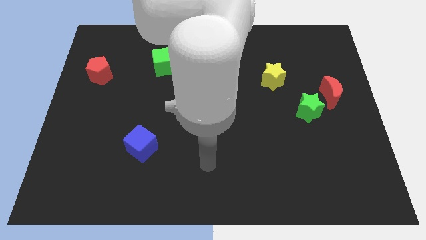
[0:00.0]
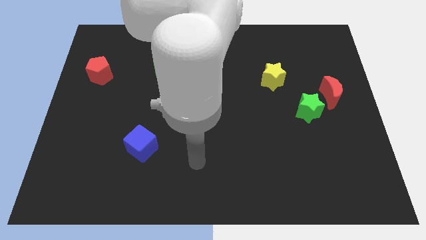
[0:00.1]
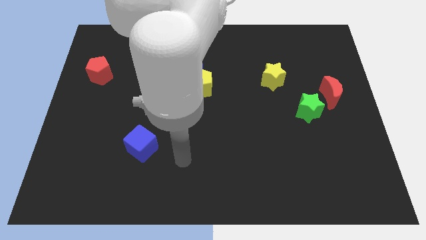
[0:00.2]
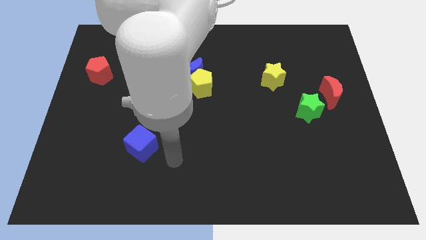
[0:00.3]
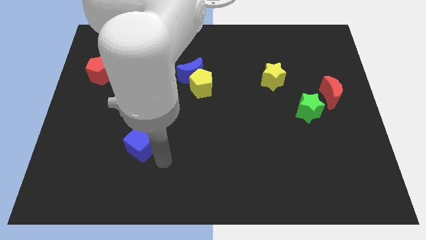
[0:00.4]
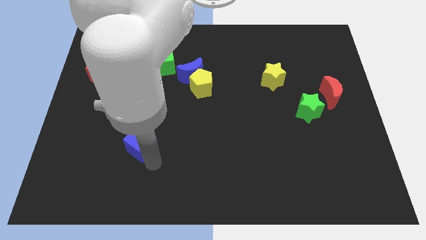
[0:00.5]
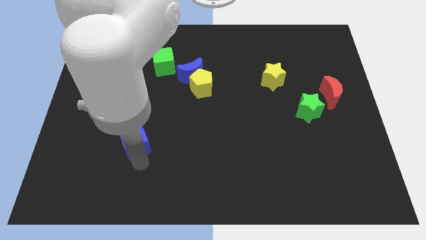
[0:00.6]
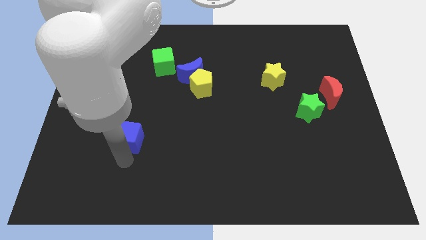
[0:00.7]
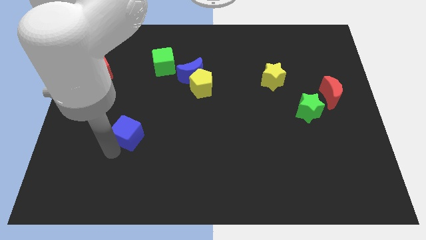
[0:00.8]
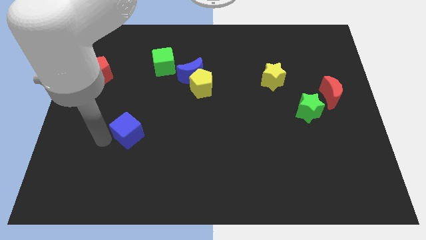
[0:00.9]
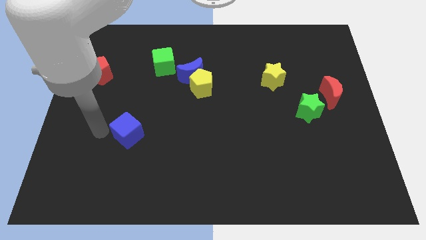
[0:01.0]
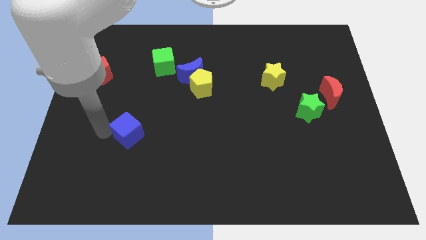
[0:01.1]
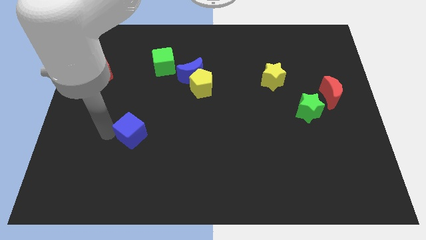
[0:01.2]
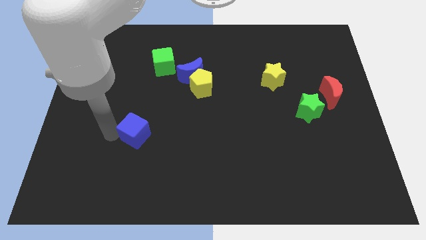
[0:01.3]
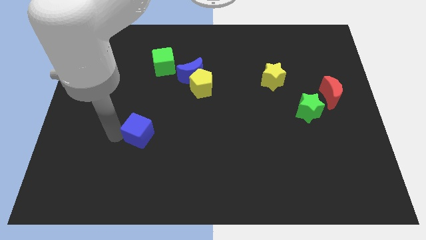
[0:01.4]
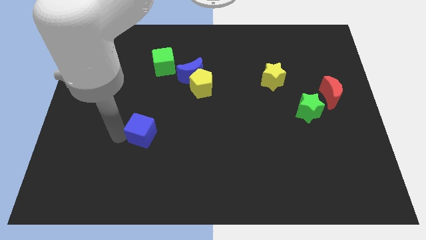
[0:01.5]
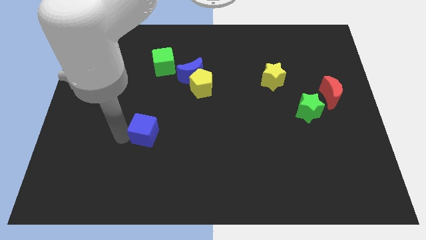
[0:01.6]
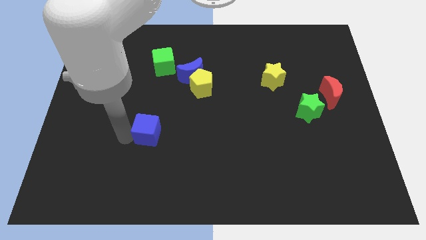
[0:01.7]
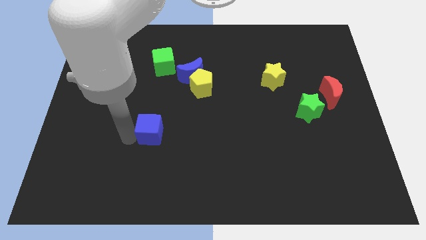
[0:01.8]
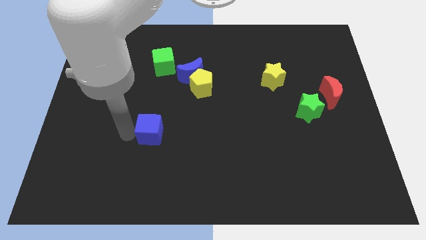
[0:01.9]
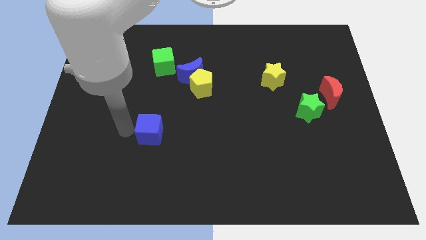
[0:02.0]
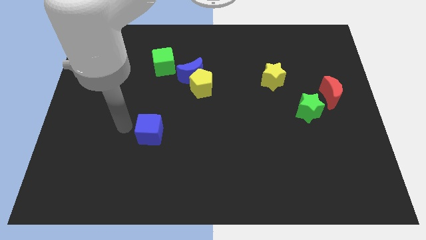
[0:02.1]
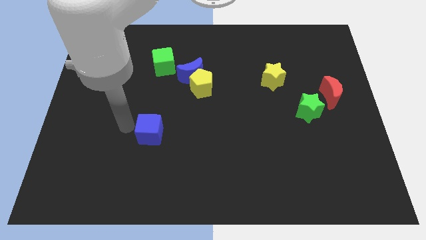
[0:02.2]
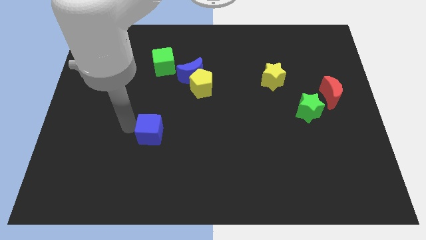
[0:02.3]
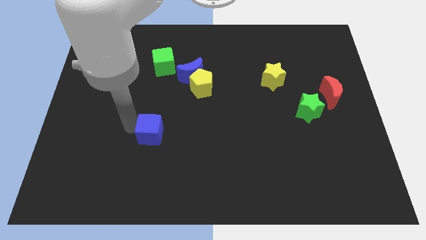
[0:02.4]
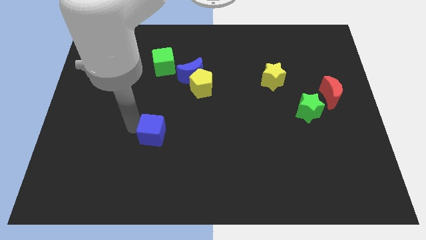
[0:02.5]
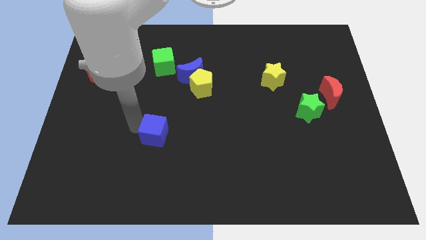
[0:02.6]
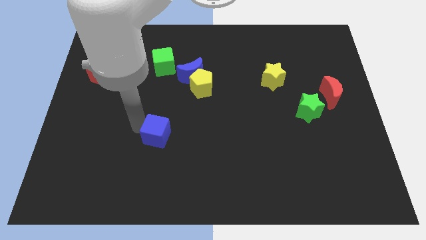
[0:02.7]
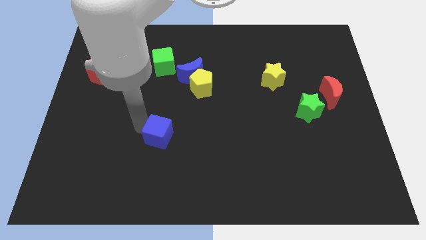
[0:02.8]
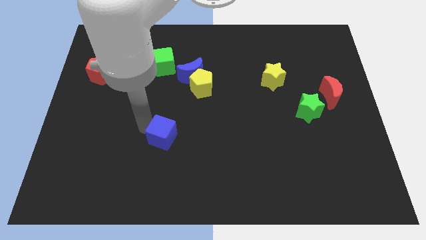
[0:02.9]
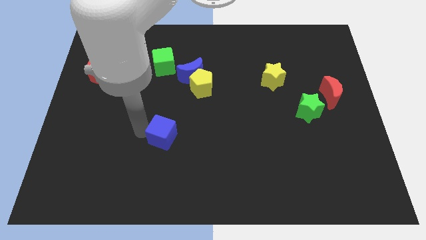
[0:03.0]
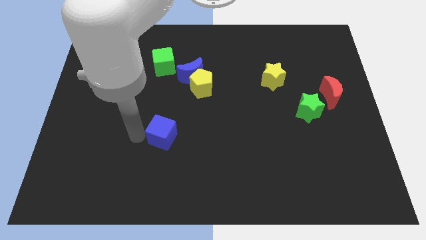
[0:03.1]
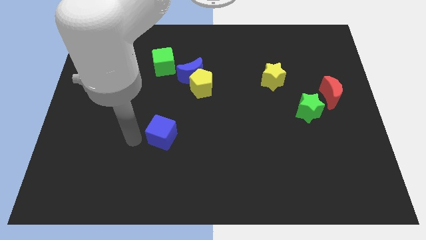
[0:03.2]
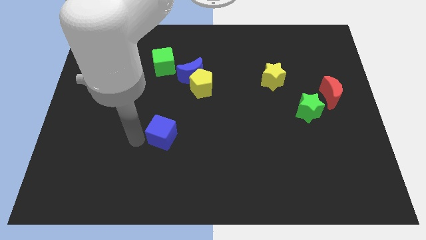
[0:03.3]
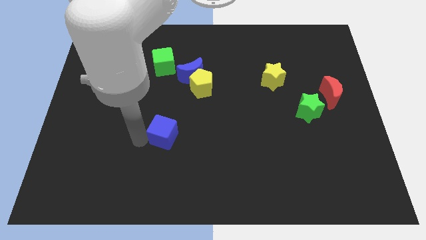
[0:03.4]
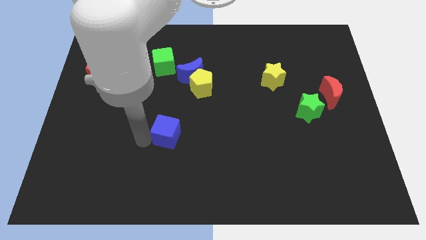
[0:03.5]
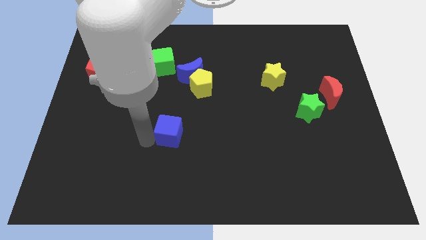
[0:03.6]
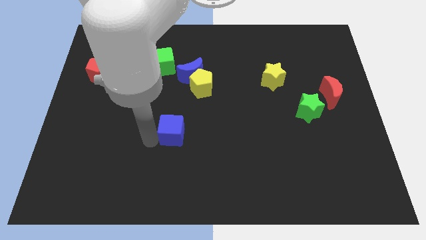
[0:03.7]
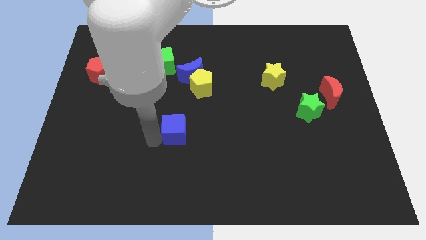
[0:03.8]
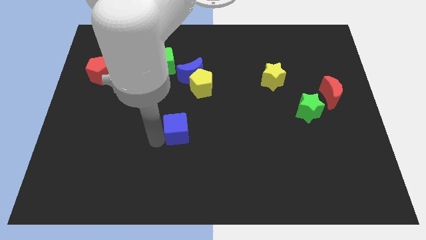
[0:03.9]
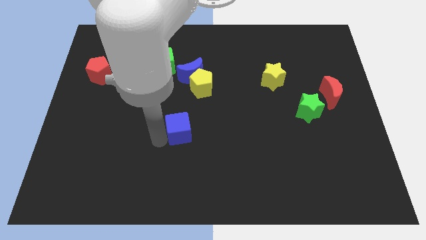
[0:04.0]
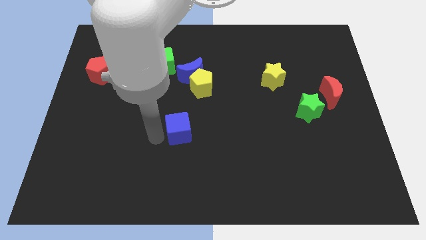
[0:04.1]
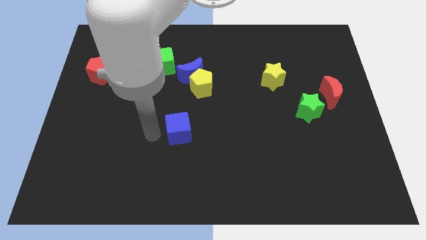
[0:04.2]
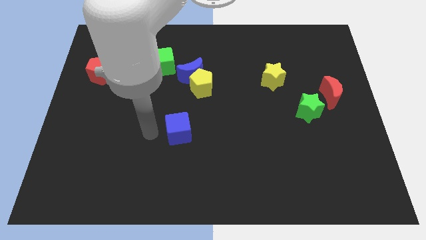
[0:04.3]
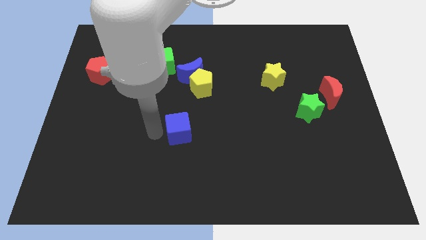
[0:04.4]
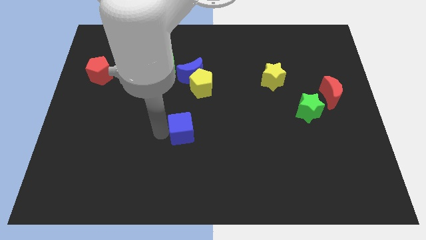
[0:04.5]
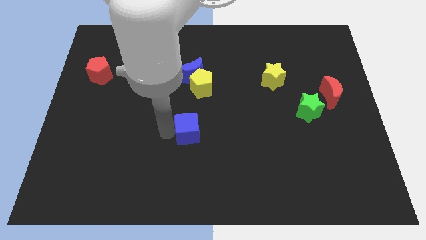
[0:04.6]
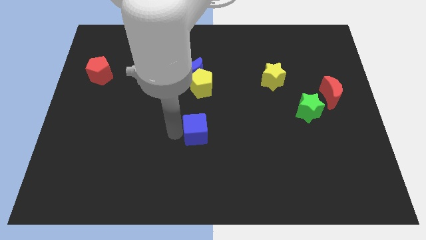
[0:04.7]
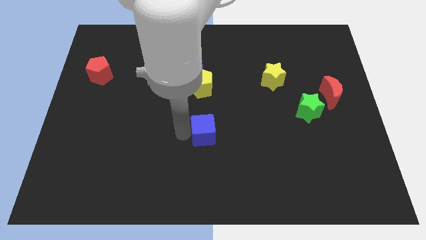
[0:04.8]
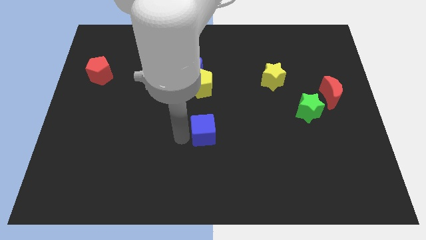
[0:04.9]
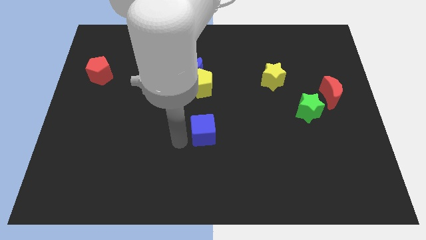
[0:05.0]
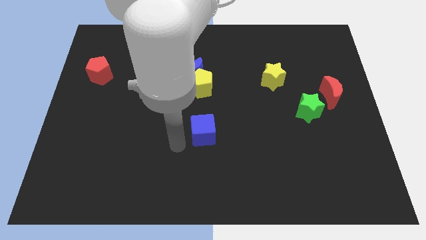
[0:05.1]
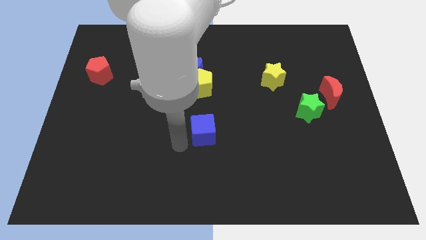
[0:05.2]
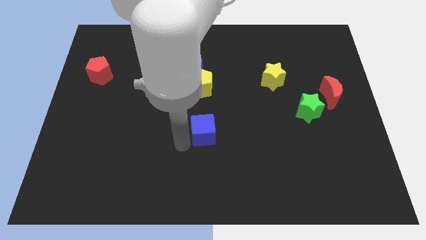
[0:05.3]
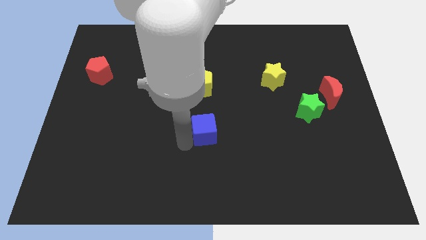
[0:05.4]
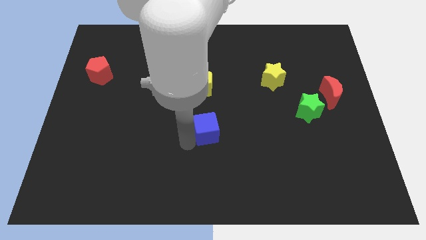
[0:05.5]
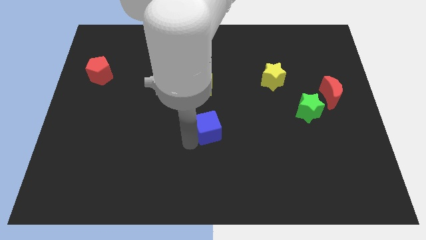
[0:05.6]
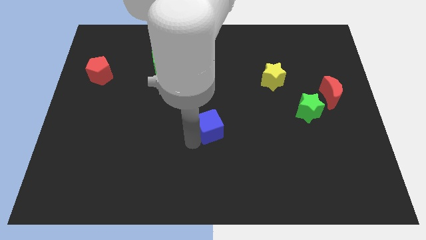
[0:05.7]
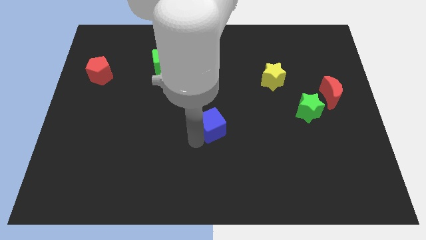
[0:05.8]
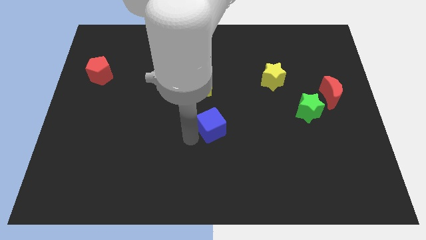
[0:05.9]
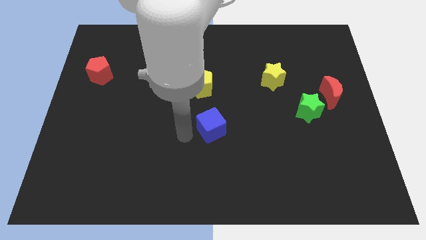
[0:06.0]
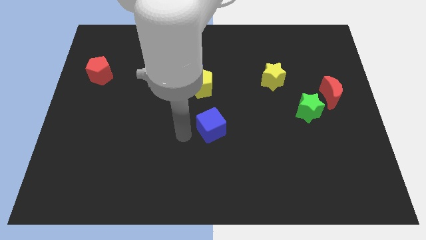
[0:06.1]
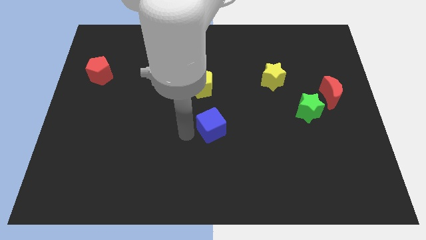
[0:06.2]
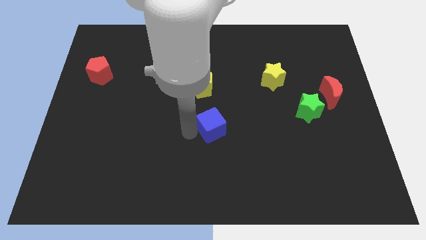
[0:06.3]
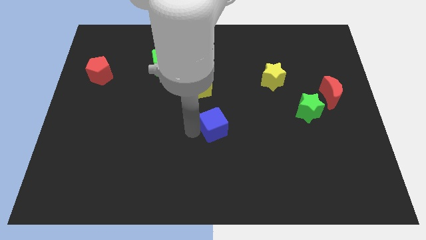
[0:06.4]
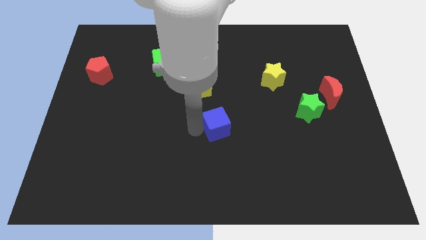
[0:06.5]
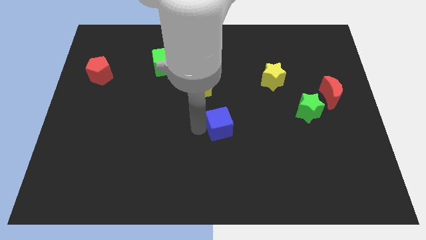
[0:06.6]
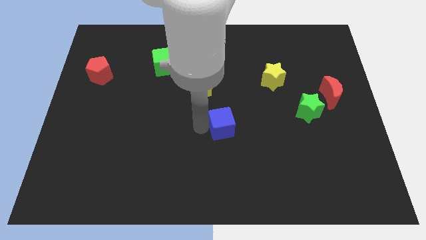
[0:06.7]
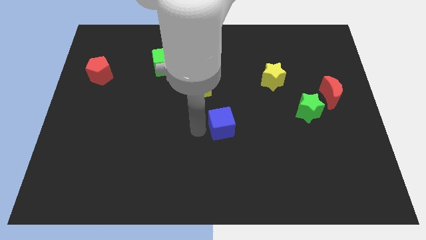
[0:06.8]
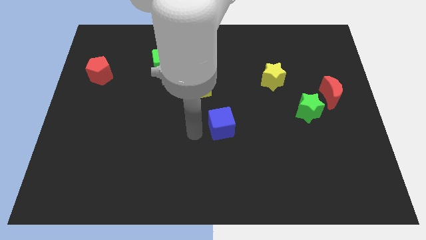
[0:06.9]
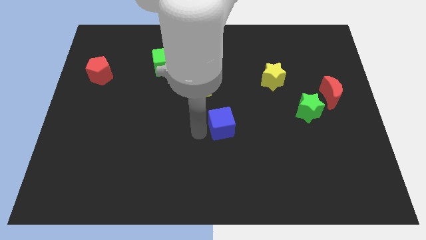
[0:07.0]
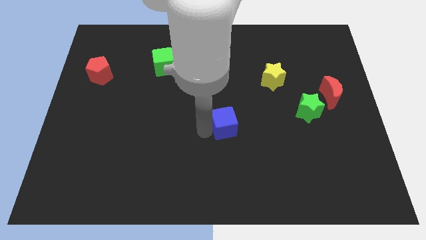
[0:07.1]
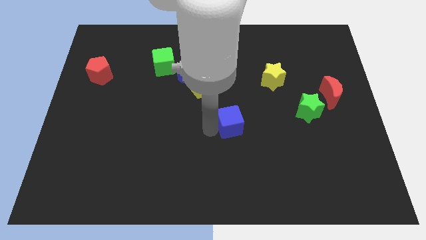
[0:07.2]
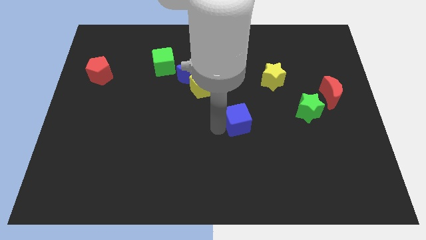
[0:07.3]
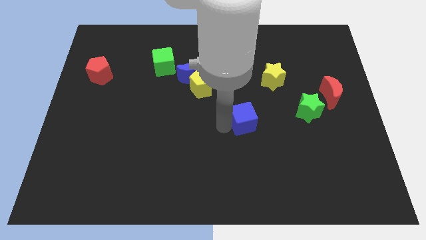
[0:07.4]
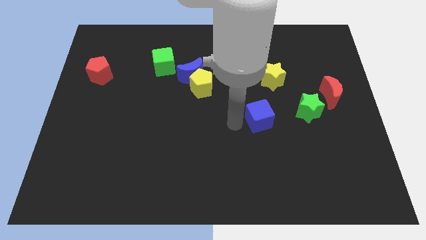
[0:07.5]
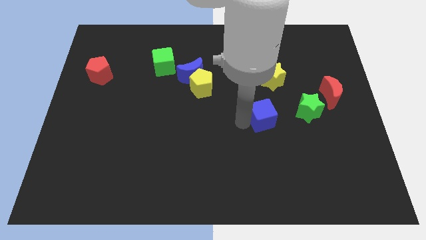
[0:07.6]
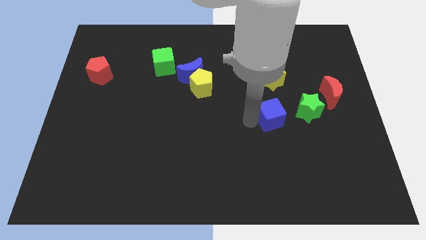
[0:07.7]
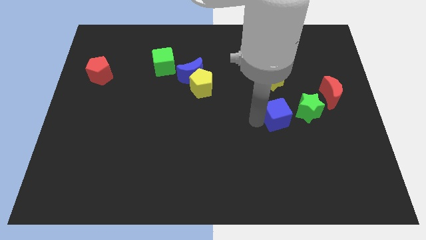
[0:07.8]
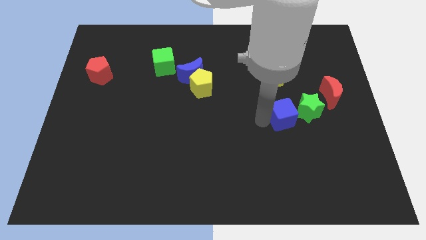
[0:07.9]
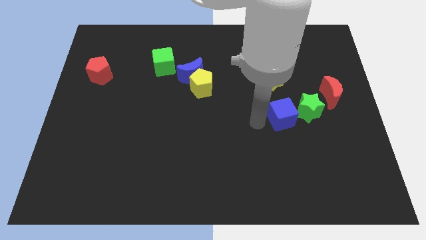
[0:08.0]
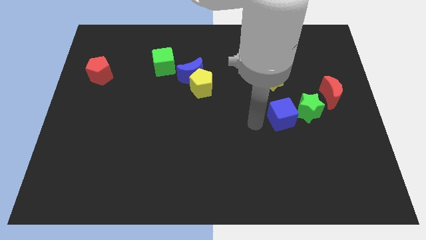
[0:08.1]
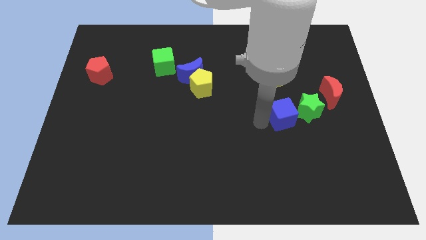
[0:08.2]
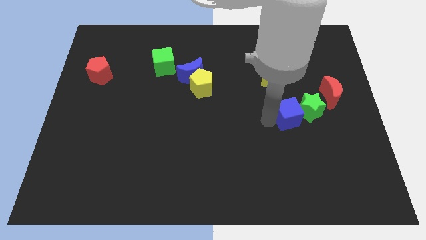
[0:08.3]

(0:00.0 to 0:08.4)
put the blue cube towards the green star
